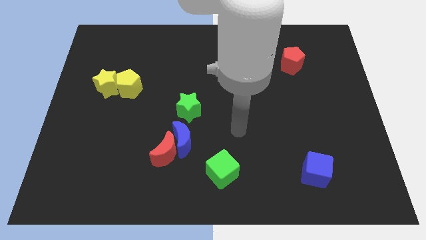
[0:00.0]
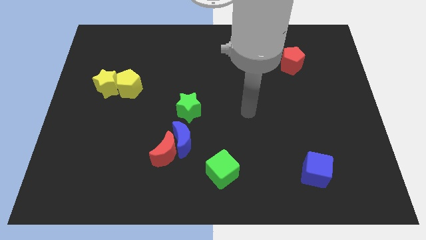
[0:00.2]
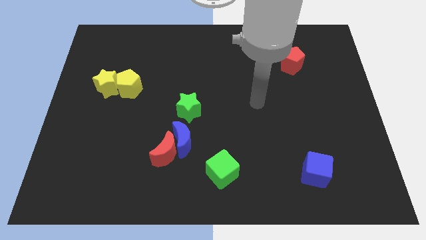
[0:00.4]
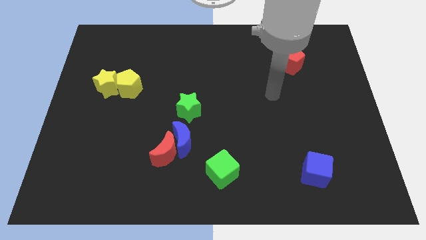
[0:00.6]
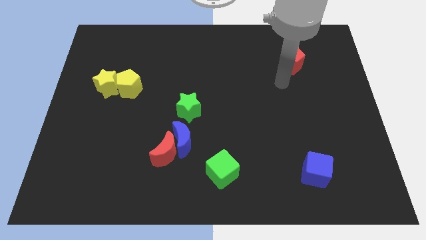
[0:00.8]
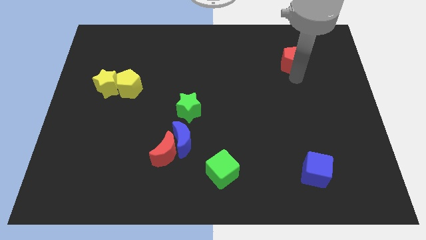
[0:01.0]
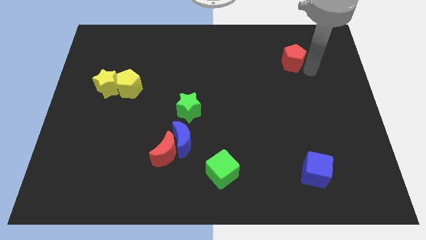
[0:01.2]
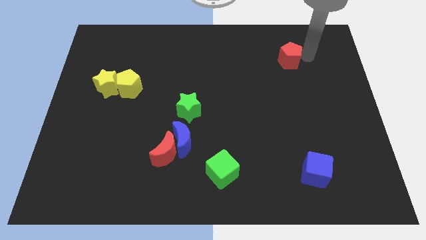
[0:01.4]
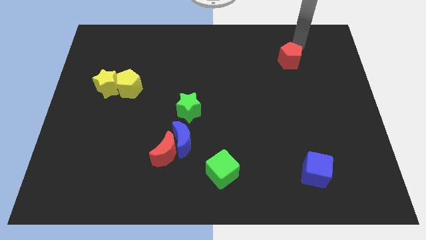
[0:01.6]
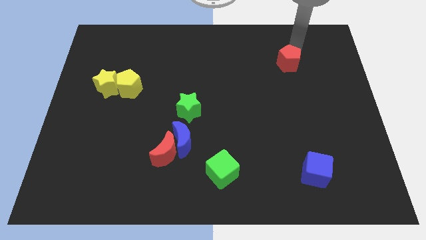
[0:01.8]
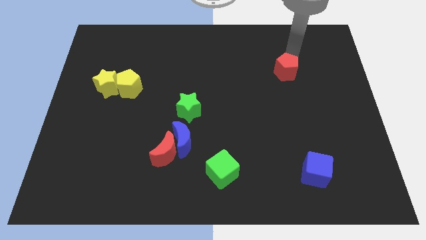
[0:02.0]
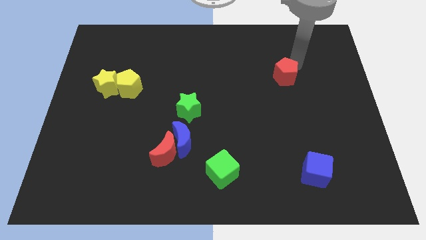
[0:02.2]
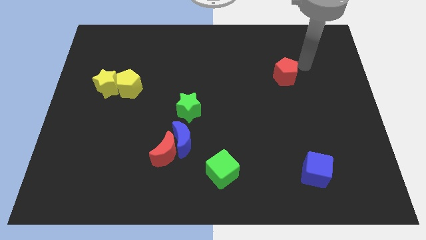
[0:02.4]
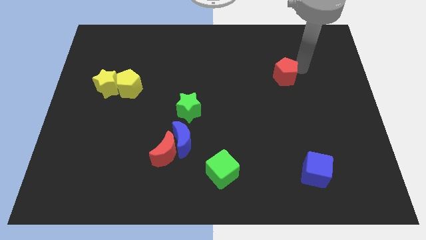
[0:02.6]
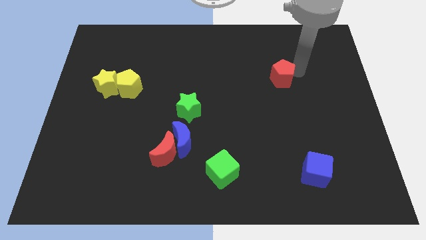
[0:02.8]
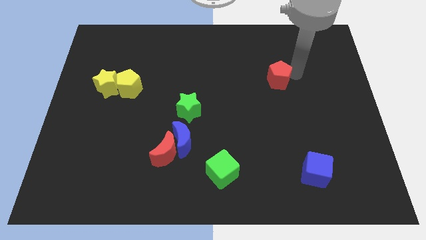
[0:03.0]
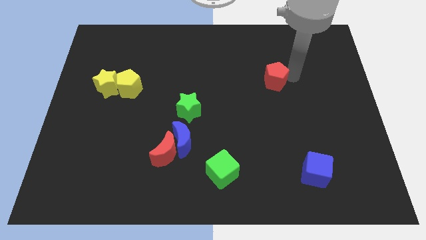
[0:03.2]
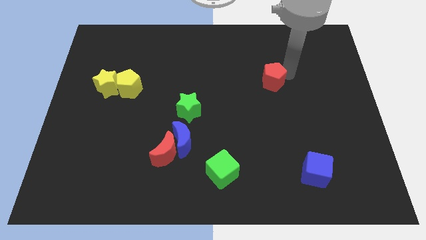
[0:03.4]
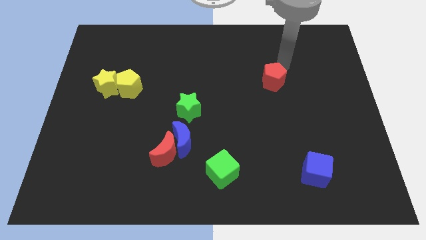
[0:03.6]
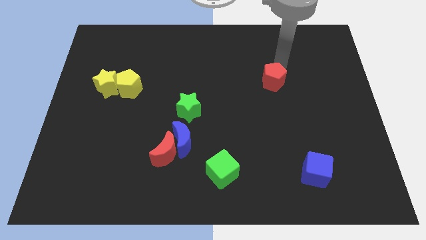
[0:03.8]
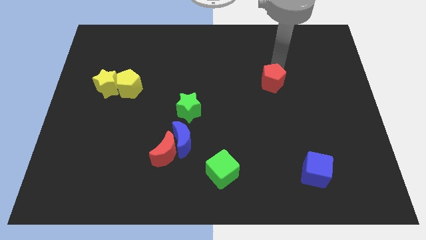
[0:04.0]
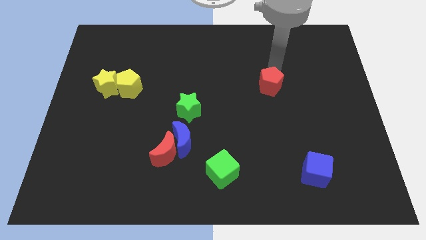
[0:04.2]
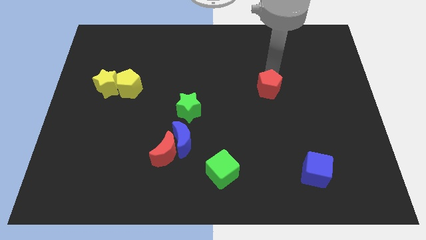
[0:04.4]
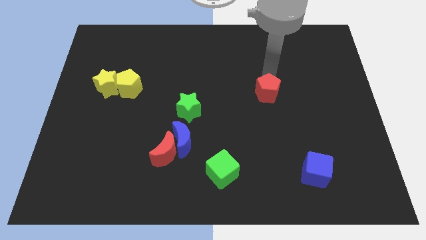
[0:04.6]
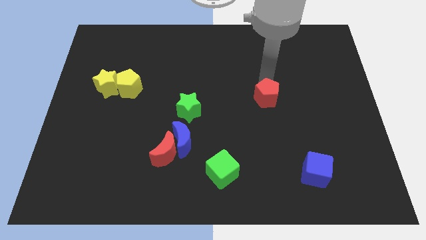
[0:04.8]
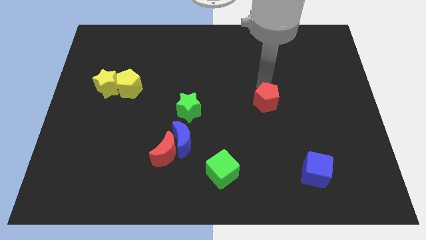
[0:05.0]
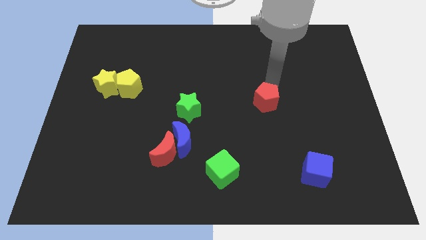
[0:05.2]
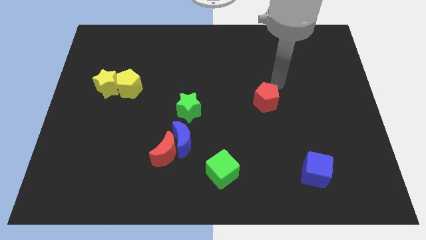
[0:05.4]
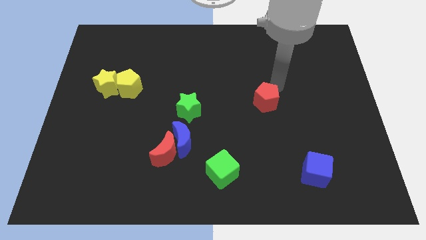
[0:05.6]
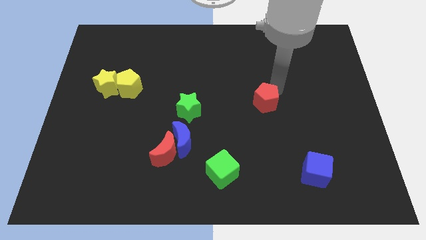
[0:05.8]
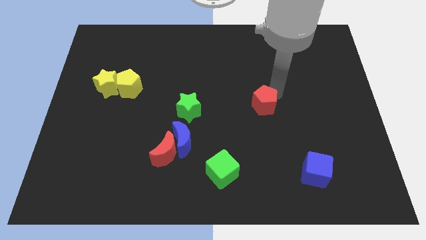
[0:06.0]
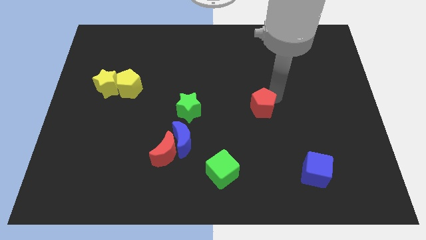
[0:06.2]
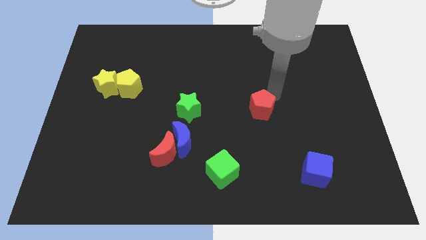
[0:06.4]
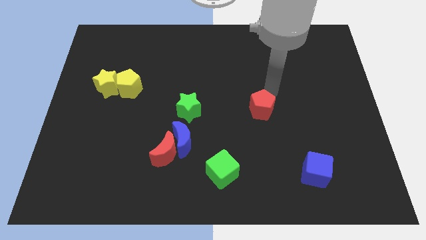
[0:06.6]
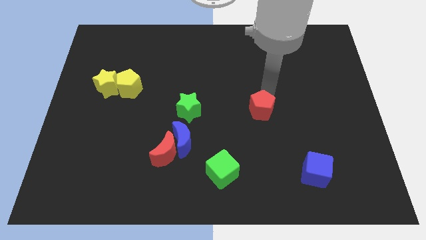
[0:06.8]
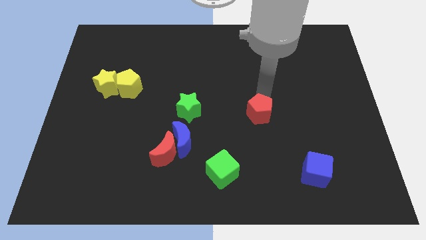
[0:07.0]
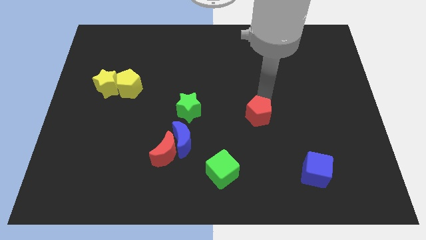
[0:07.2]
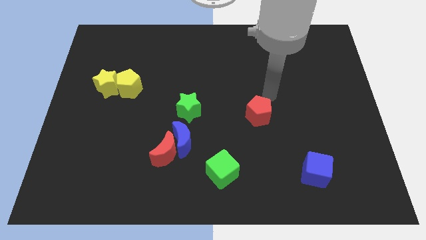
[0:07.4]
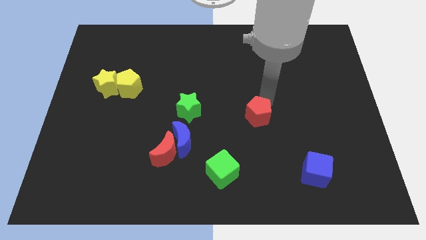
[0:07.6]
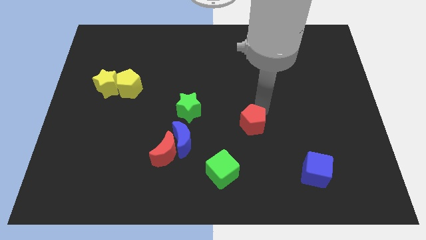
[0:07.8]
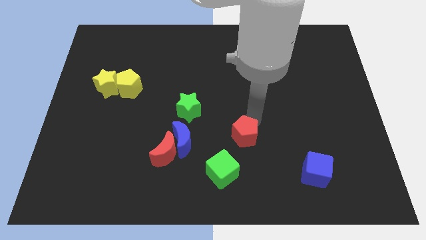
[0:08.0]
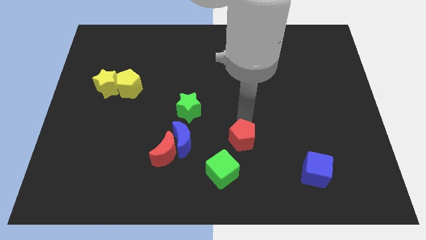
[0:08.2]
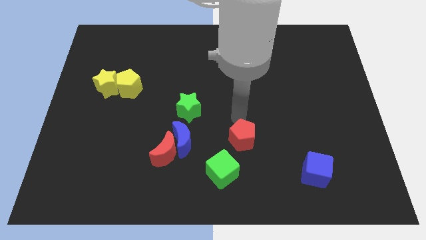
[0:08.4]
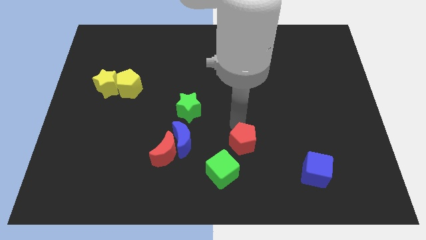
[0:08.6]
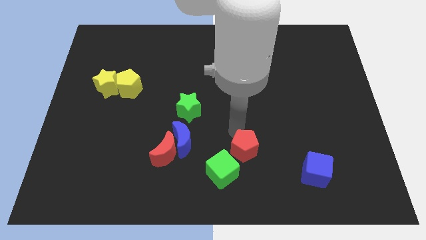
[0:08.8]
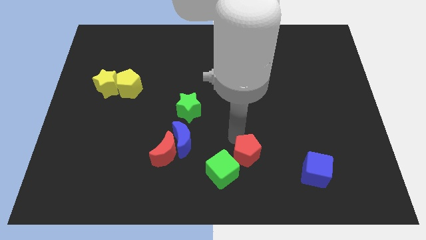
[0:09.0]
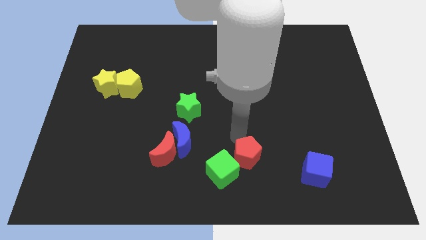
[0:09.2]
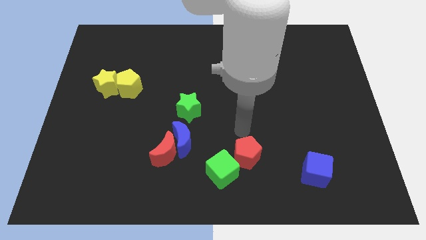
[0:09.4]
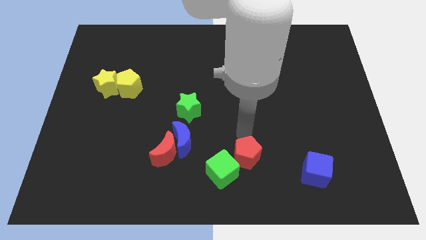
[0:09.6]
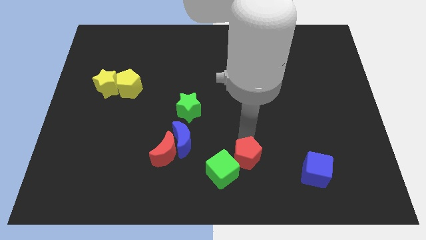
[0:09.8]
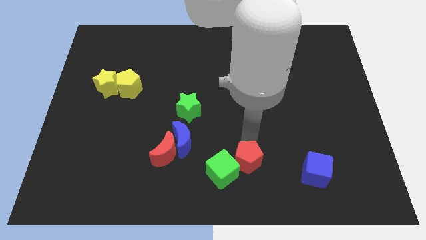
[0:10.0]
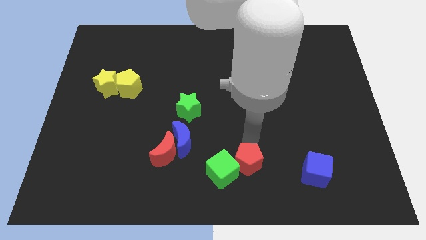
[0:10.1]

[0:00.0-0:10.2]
push the red pentagon to the bottom

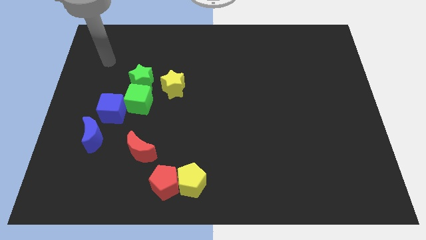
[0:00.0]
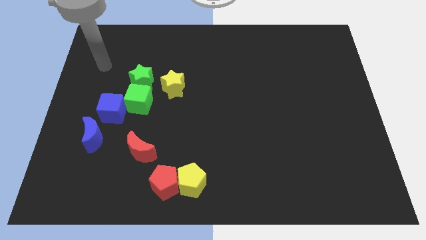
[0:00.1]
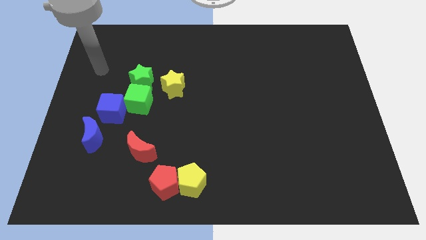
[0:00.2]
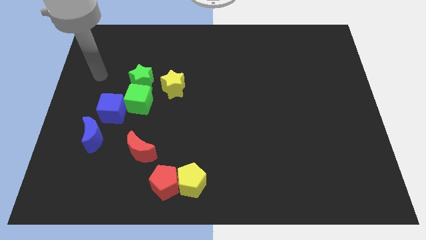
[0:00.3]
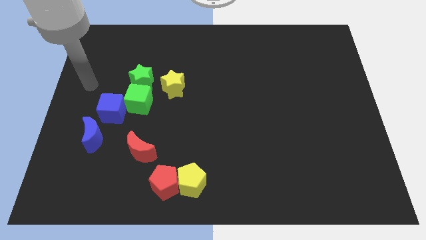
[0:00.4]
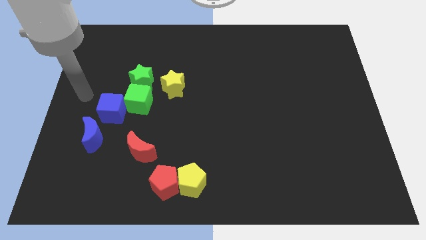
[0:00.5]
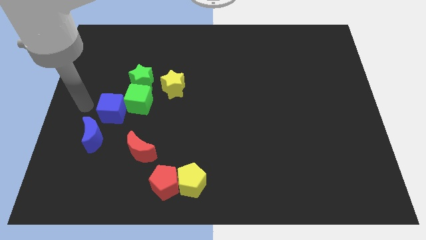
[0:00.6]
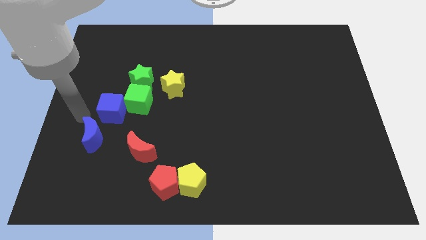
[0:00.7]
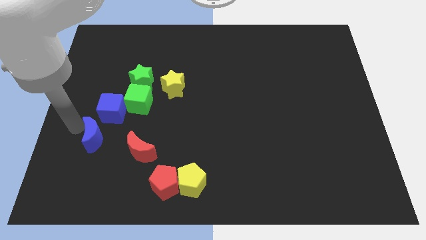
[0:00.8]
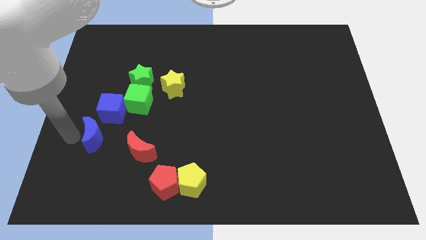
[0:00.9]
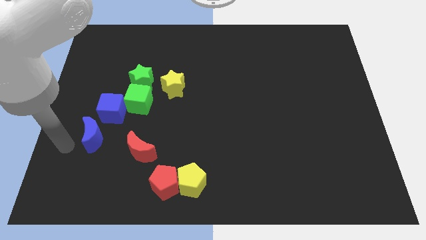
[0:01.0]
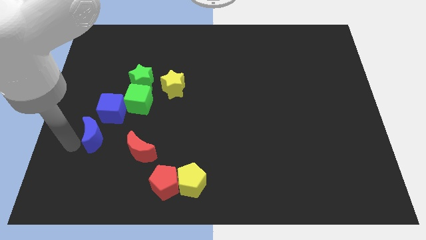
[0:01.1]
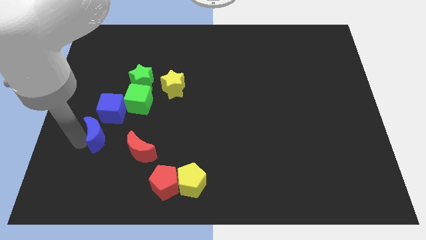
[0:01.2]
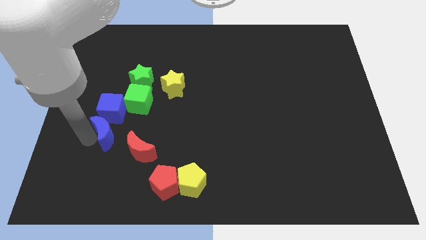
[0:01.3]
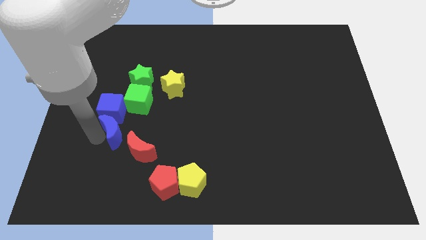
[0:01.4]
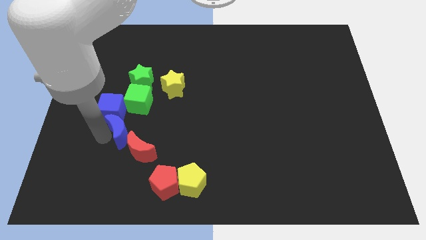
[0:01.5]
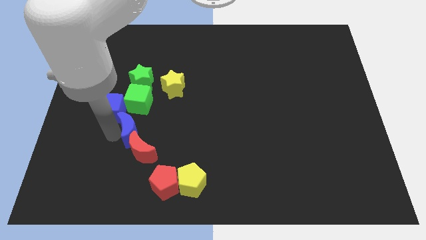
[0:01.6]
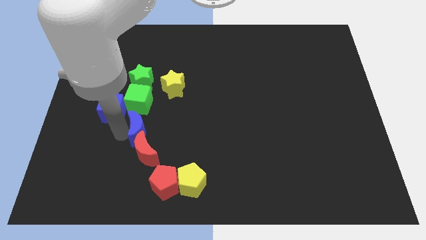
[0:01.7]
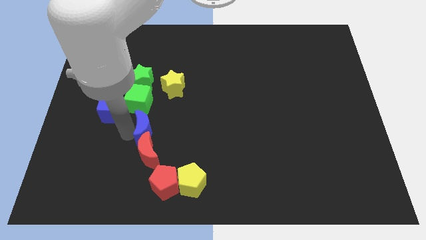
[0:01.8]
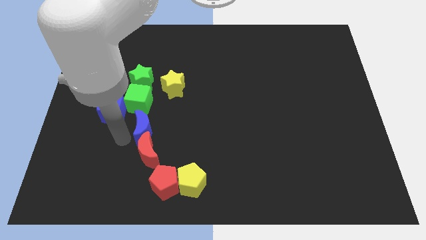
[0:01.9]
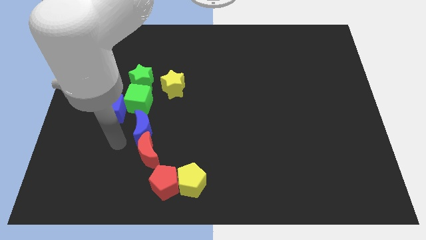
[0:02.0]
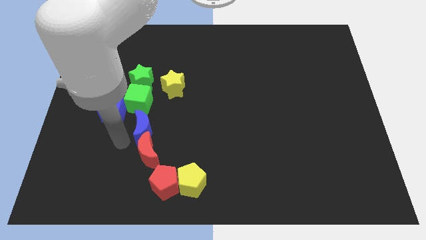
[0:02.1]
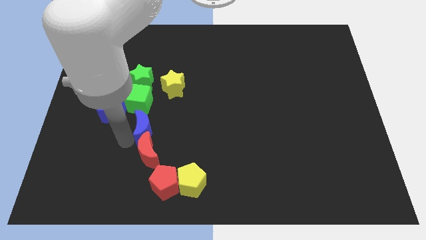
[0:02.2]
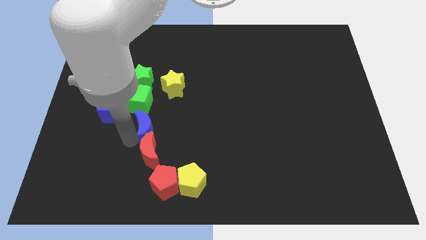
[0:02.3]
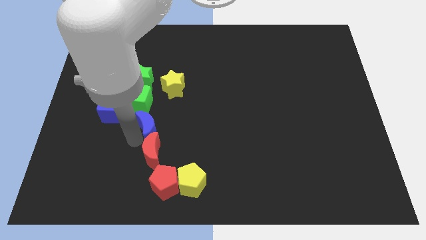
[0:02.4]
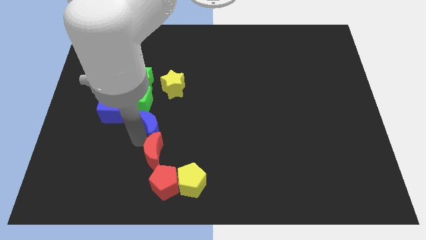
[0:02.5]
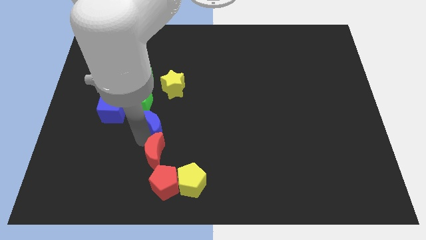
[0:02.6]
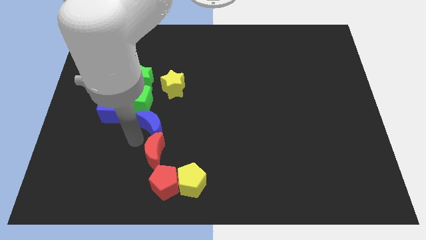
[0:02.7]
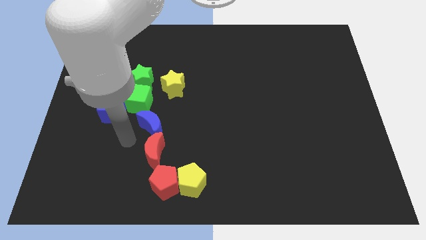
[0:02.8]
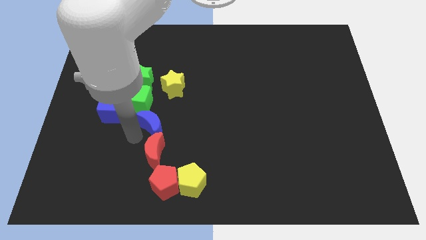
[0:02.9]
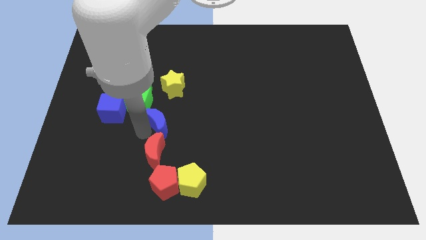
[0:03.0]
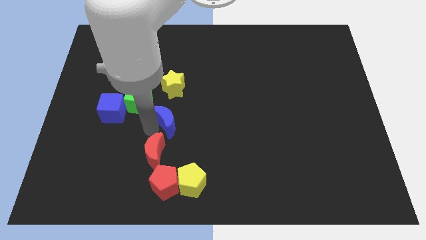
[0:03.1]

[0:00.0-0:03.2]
push the blue moon to the middle
